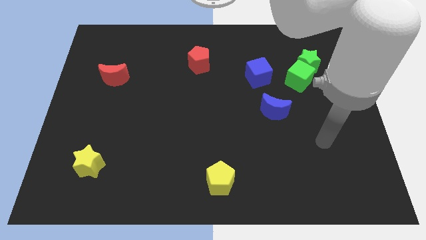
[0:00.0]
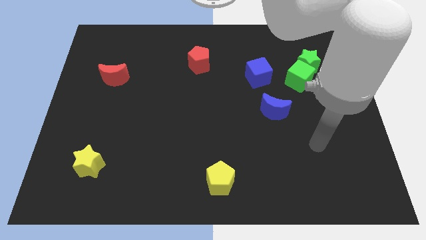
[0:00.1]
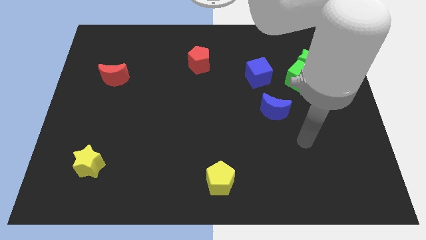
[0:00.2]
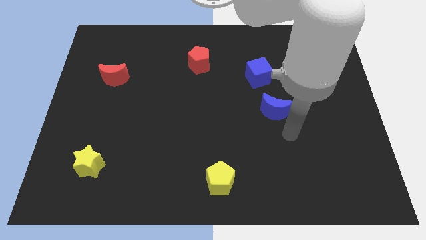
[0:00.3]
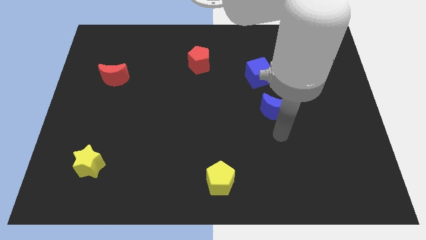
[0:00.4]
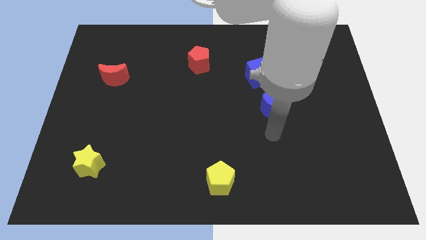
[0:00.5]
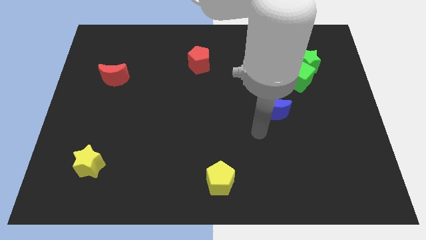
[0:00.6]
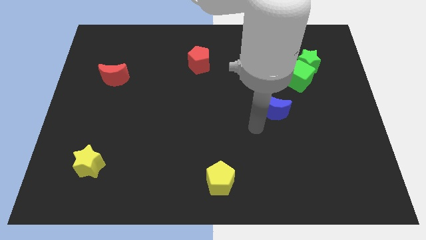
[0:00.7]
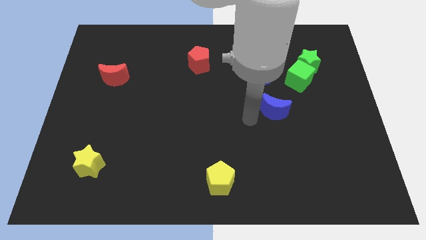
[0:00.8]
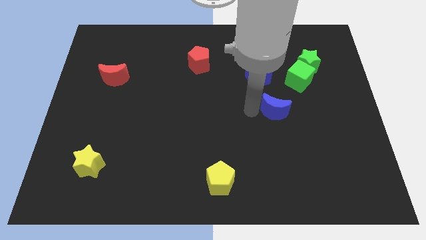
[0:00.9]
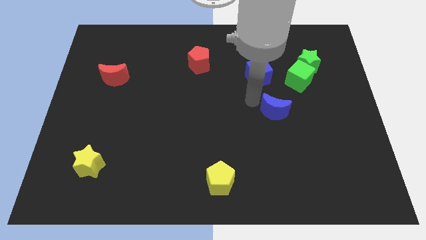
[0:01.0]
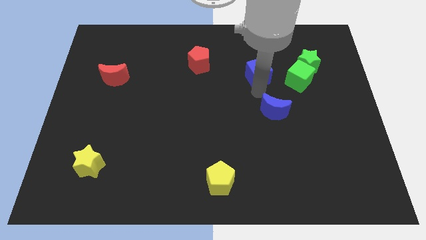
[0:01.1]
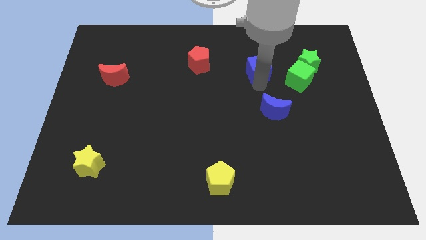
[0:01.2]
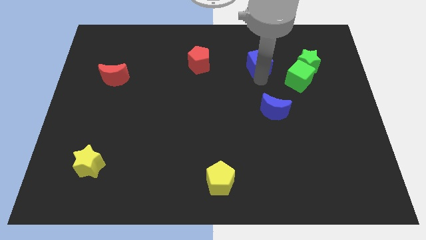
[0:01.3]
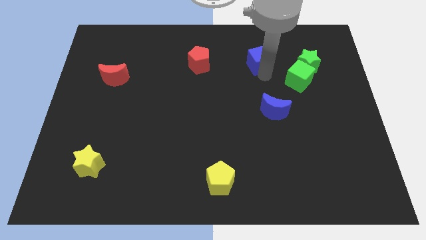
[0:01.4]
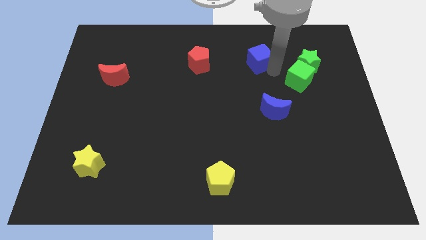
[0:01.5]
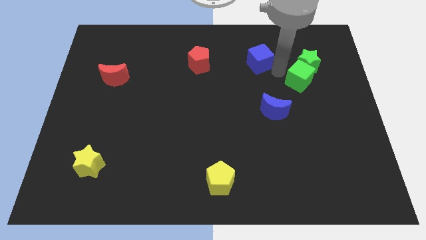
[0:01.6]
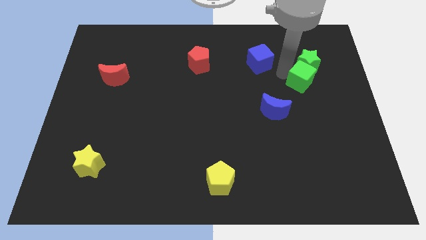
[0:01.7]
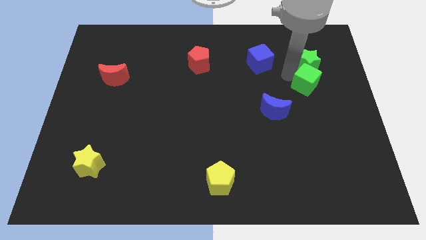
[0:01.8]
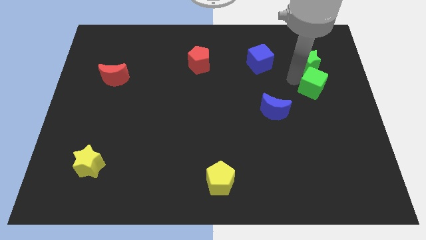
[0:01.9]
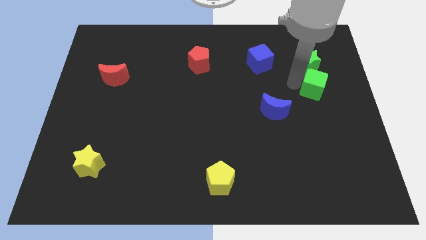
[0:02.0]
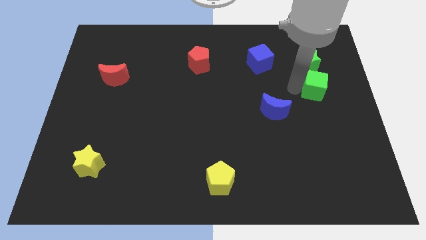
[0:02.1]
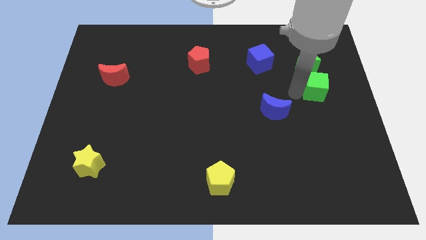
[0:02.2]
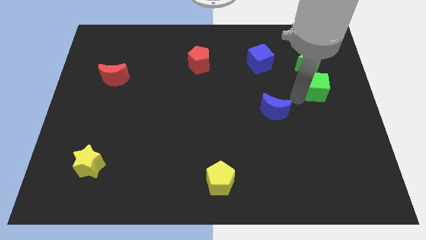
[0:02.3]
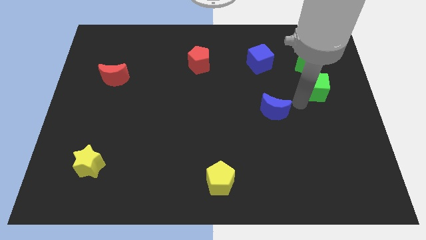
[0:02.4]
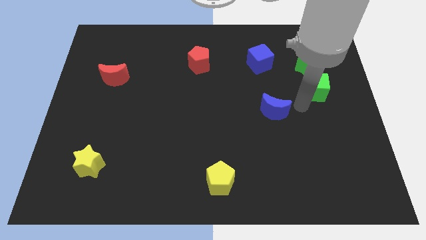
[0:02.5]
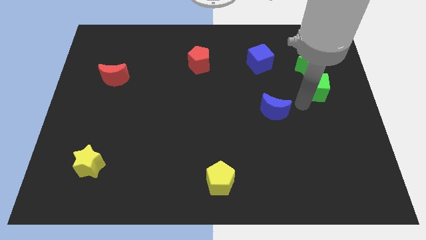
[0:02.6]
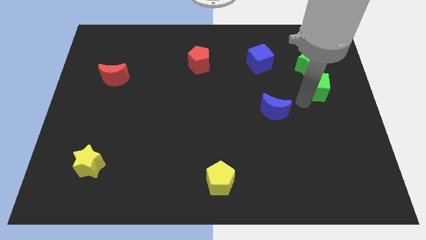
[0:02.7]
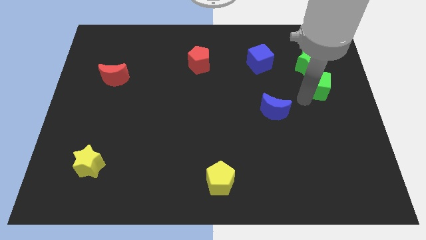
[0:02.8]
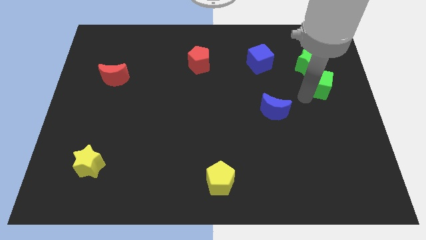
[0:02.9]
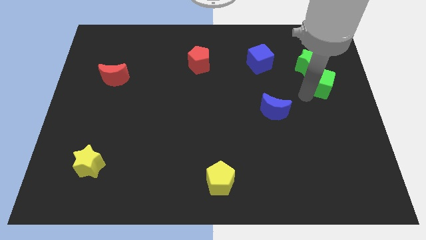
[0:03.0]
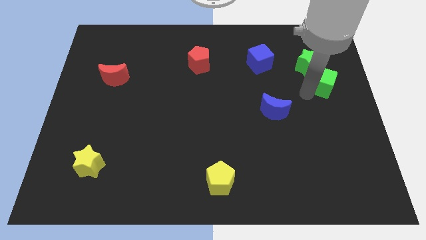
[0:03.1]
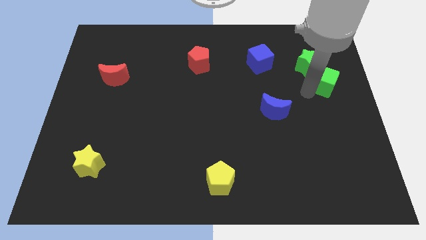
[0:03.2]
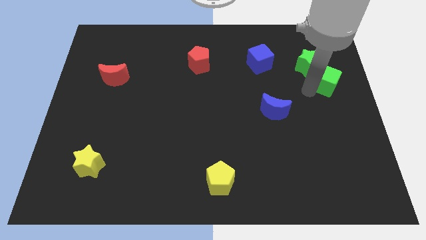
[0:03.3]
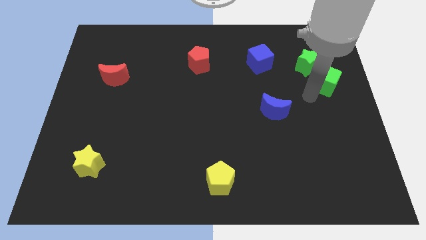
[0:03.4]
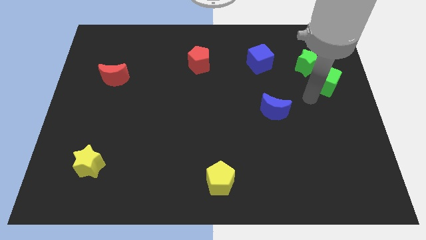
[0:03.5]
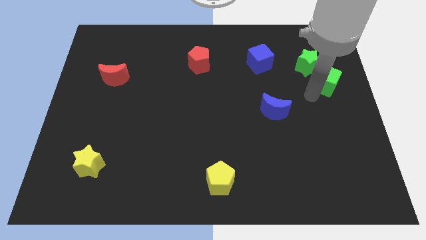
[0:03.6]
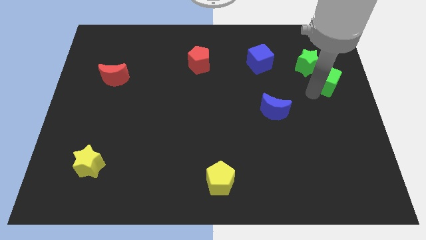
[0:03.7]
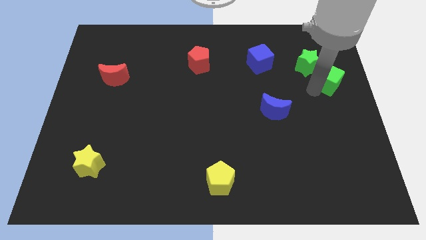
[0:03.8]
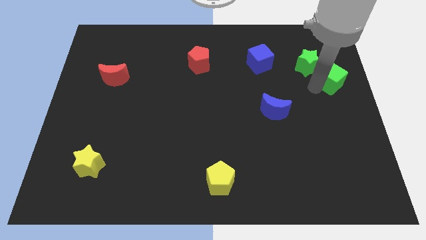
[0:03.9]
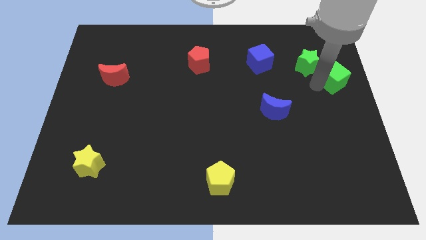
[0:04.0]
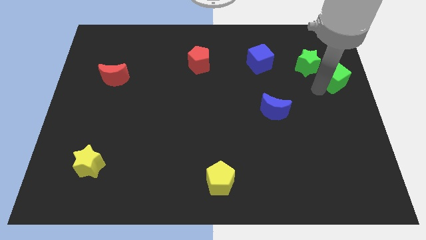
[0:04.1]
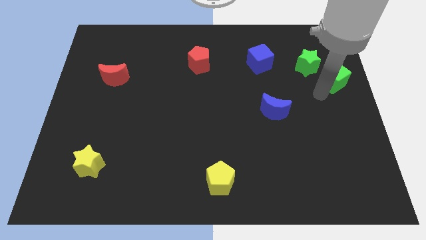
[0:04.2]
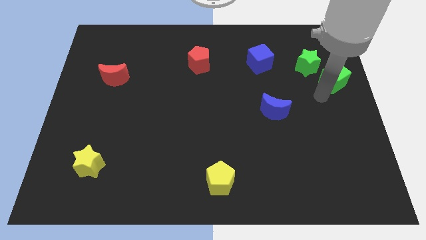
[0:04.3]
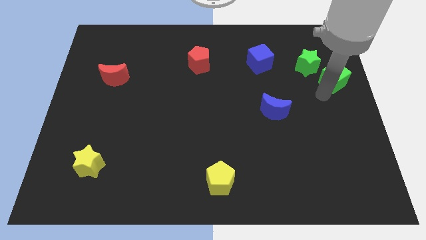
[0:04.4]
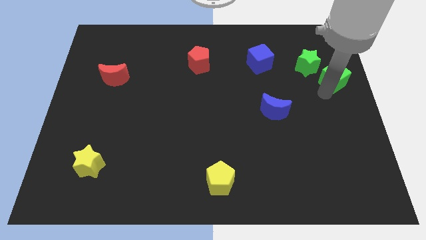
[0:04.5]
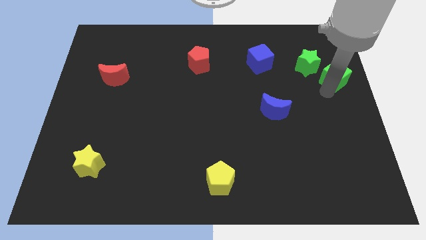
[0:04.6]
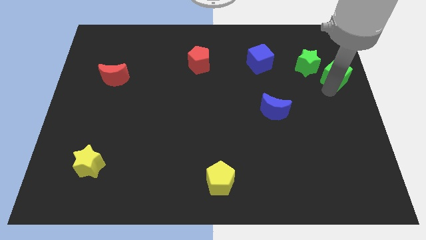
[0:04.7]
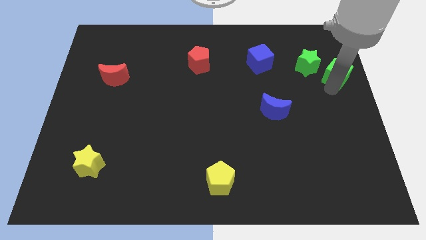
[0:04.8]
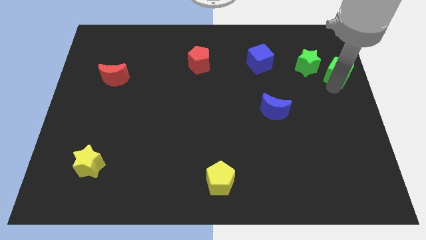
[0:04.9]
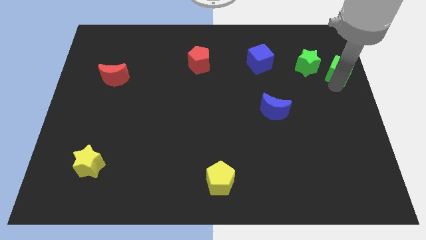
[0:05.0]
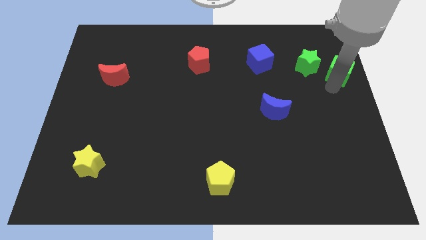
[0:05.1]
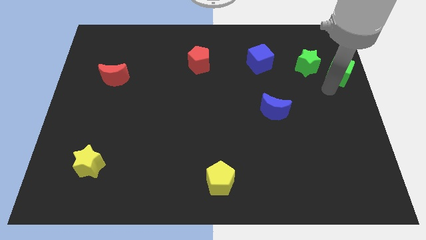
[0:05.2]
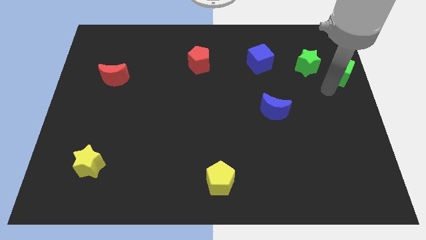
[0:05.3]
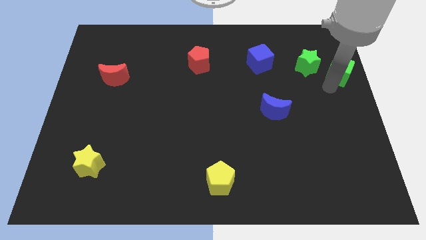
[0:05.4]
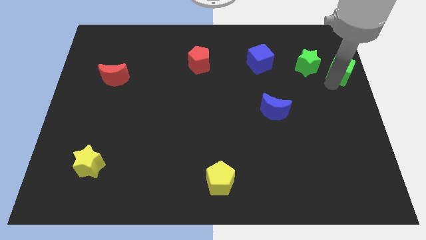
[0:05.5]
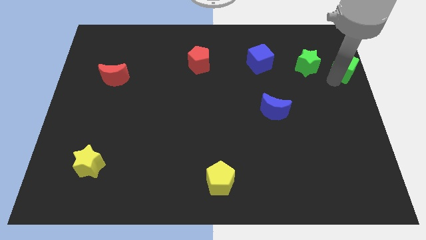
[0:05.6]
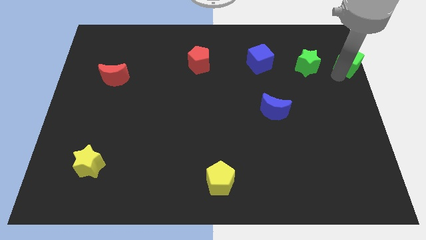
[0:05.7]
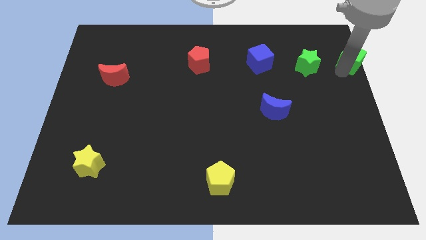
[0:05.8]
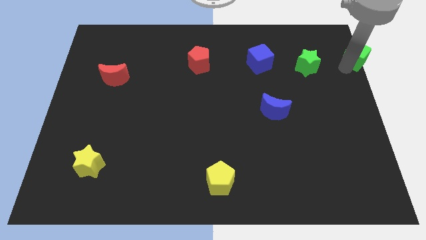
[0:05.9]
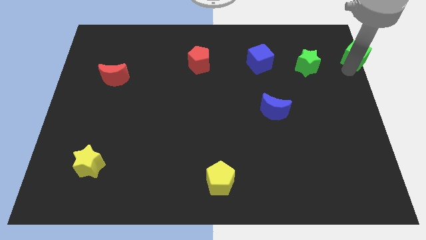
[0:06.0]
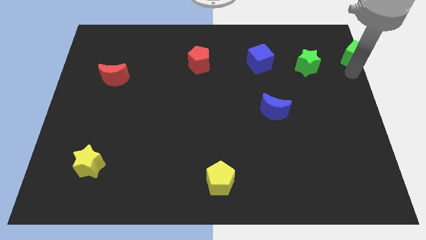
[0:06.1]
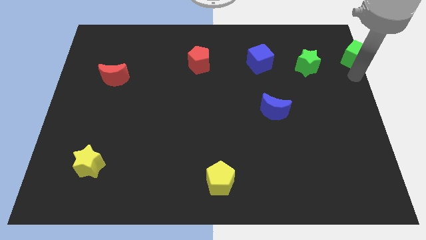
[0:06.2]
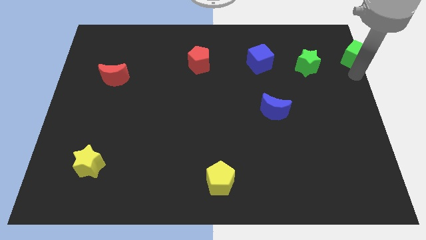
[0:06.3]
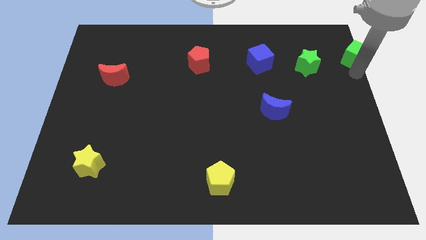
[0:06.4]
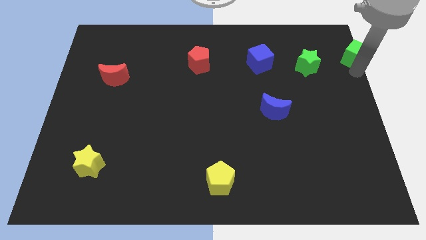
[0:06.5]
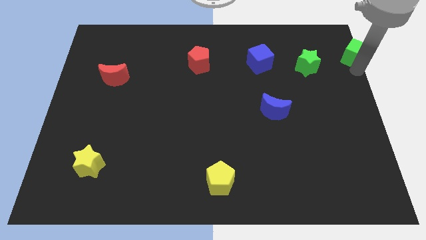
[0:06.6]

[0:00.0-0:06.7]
slide the green cube to the top right corner
